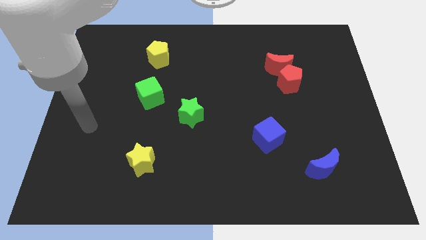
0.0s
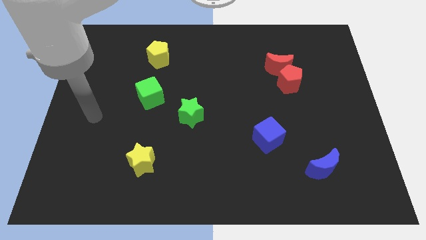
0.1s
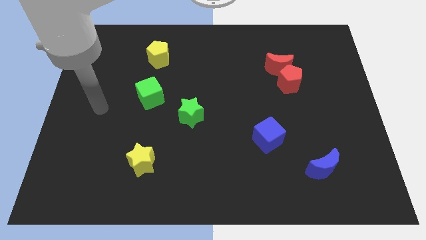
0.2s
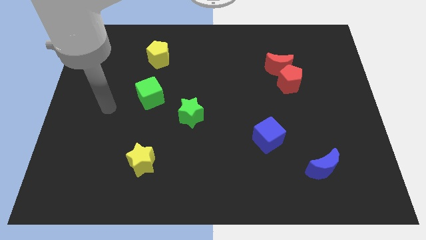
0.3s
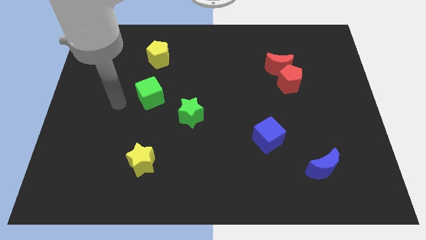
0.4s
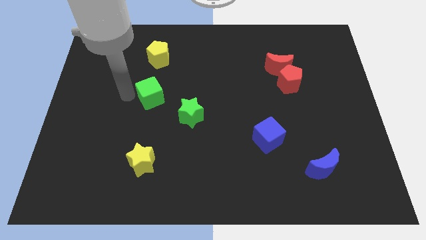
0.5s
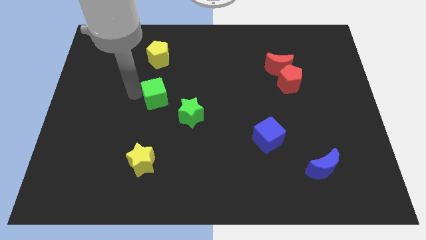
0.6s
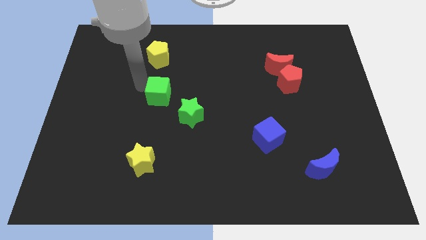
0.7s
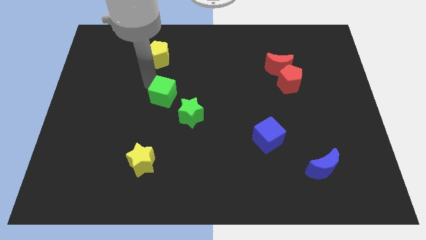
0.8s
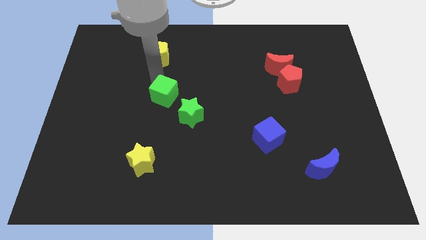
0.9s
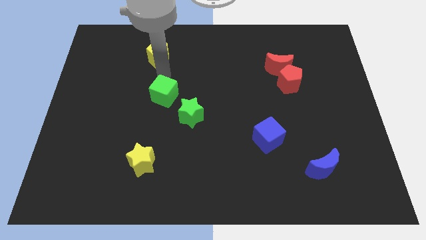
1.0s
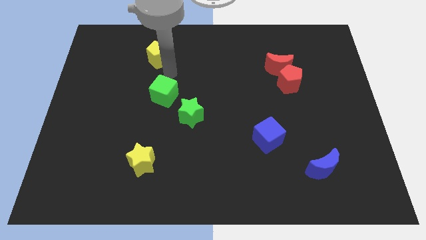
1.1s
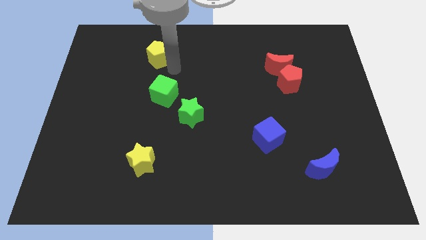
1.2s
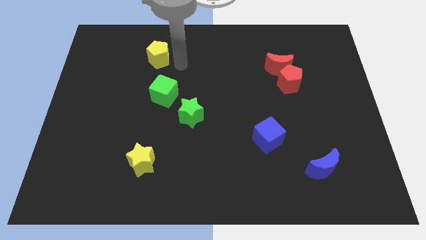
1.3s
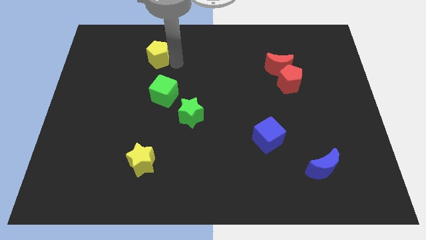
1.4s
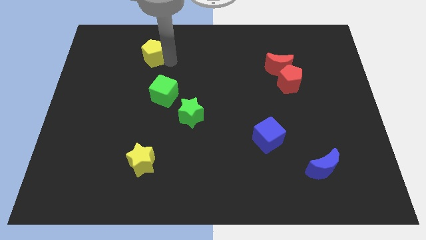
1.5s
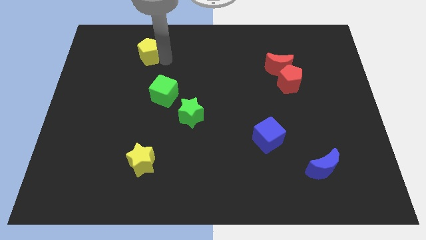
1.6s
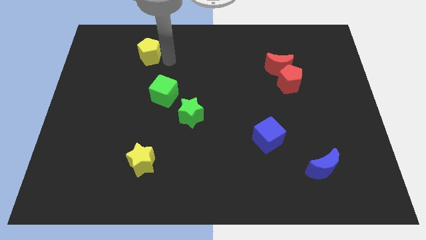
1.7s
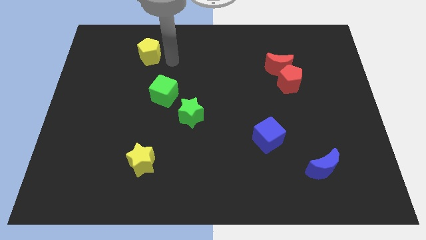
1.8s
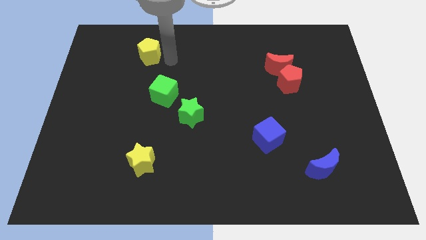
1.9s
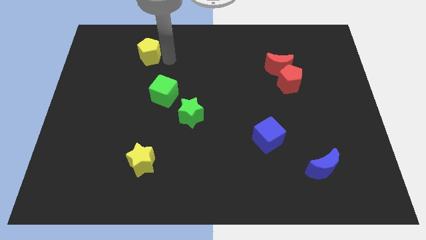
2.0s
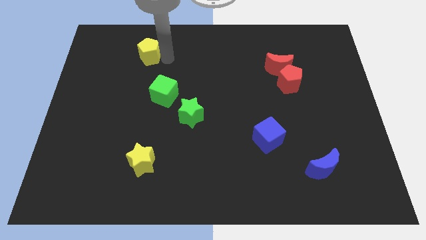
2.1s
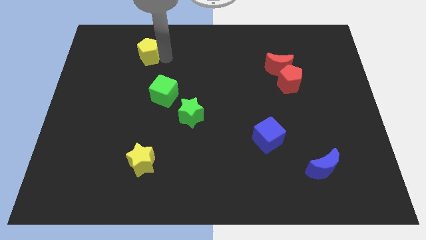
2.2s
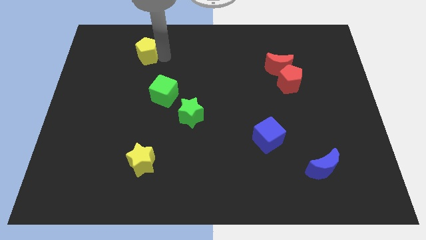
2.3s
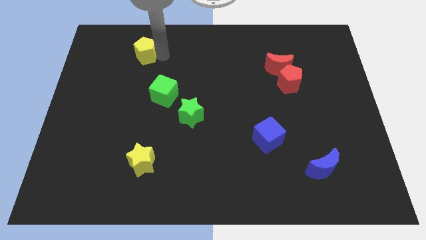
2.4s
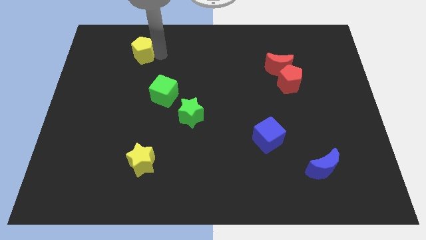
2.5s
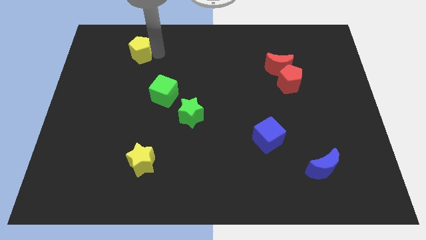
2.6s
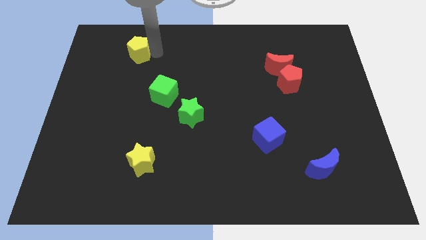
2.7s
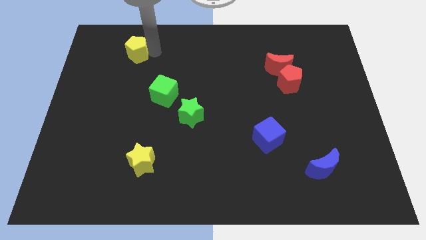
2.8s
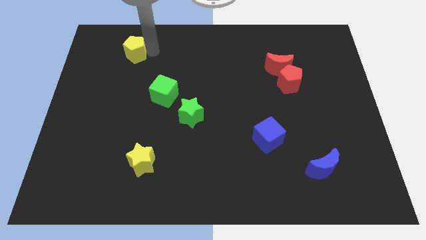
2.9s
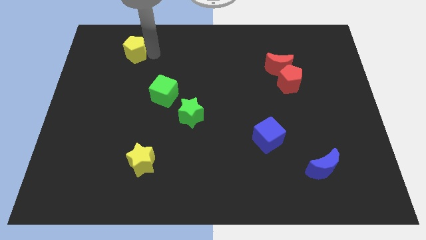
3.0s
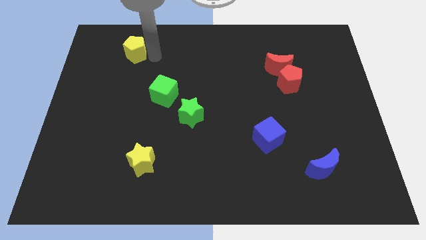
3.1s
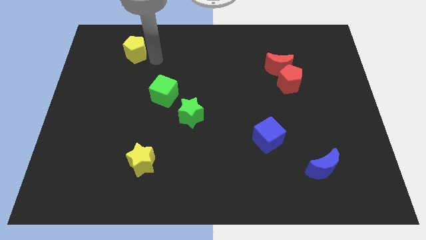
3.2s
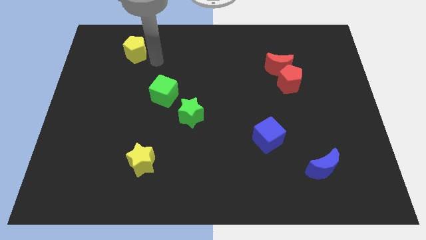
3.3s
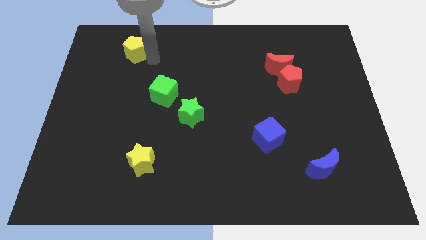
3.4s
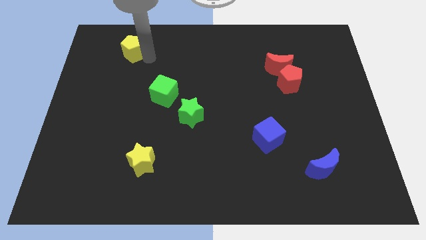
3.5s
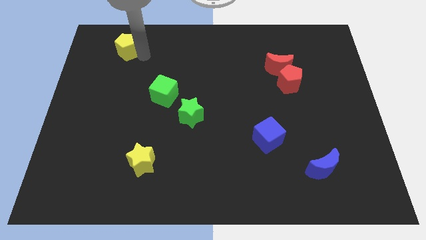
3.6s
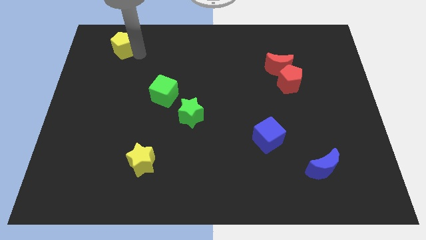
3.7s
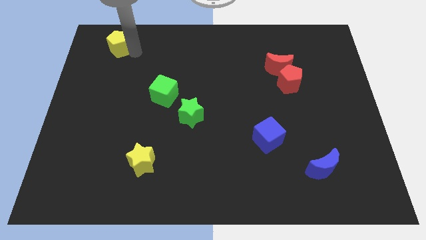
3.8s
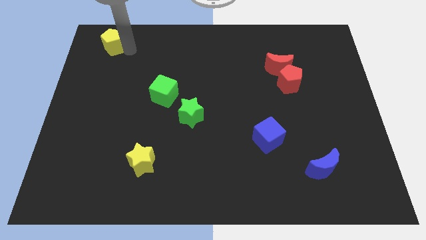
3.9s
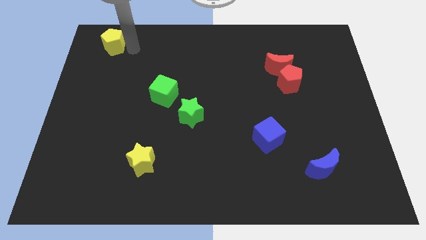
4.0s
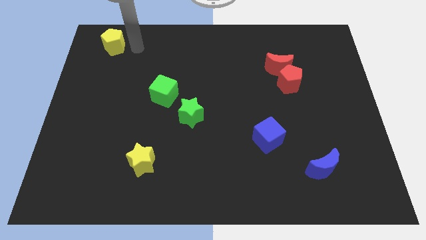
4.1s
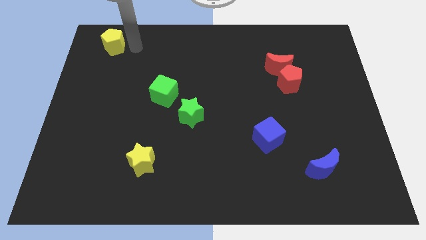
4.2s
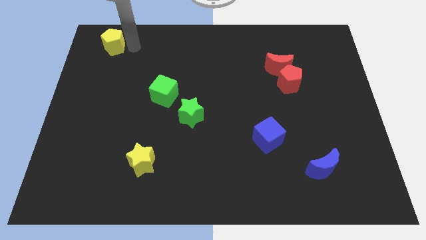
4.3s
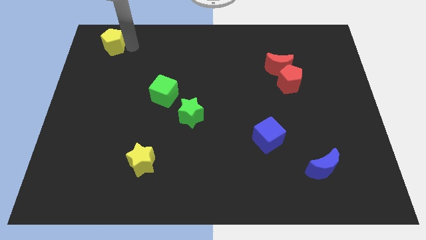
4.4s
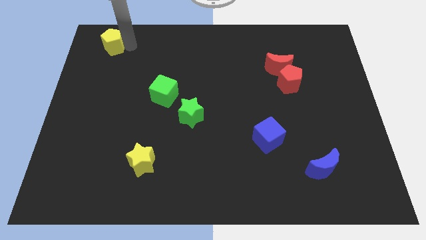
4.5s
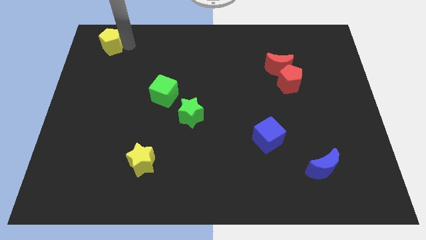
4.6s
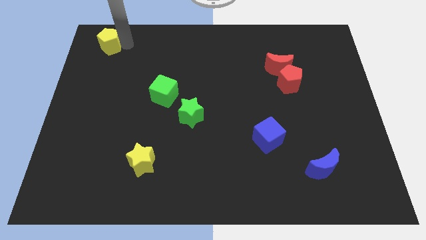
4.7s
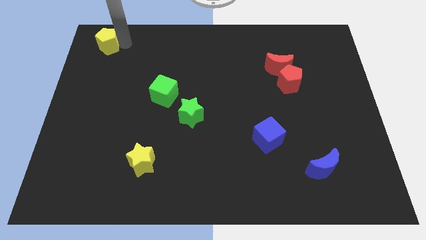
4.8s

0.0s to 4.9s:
push the yellow pentagon to the top left corner

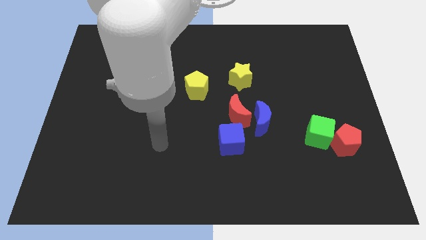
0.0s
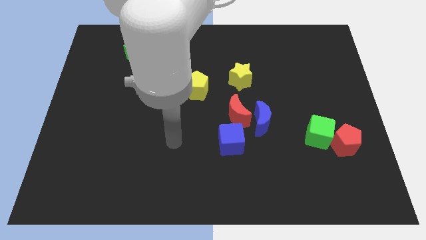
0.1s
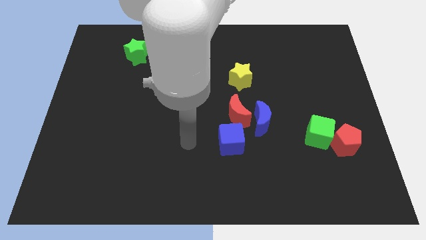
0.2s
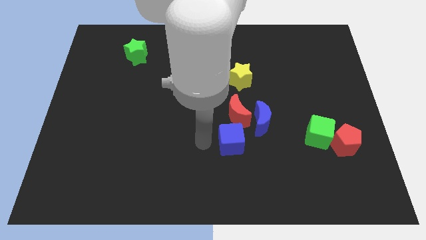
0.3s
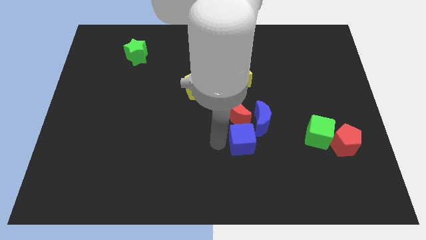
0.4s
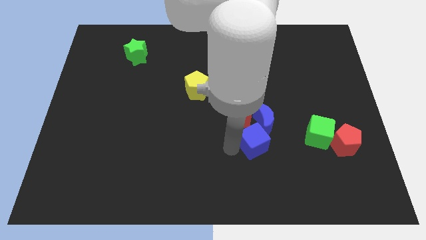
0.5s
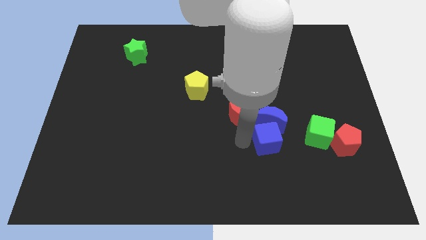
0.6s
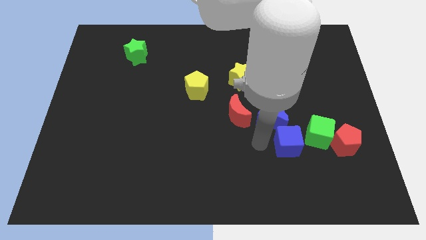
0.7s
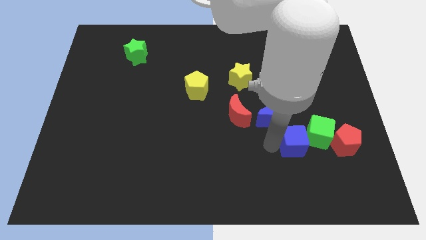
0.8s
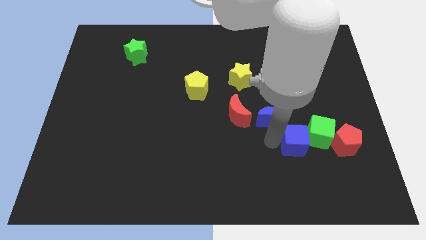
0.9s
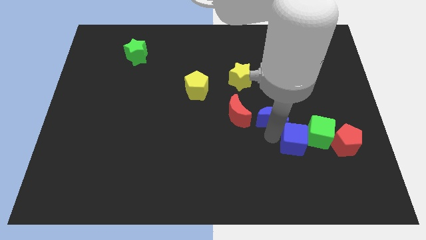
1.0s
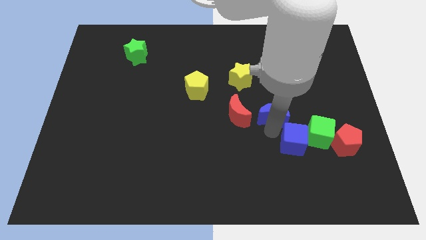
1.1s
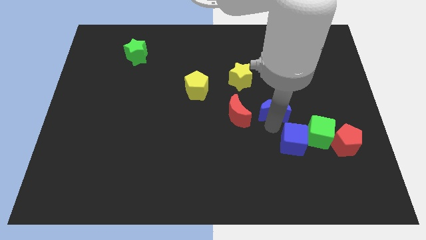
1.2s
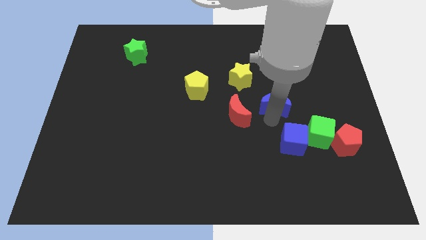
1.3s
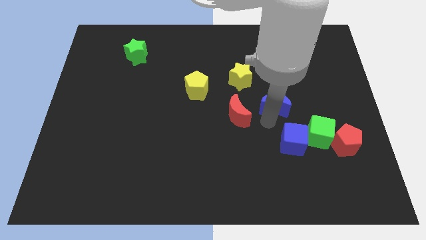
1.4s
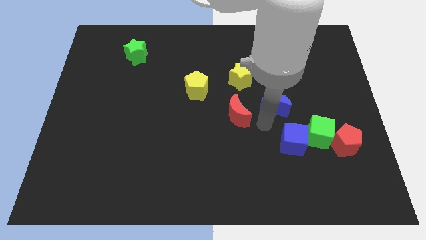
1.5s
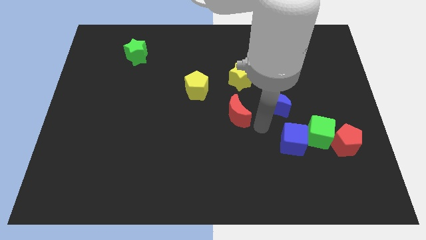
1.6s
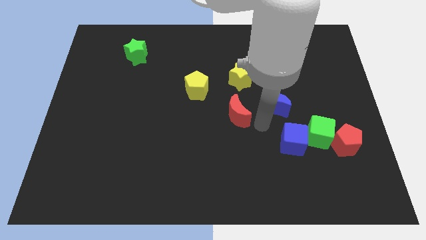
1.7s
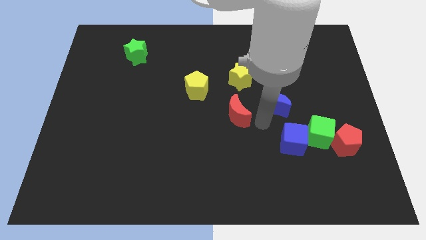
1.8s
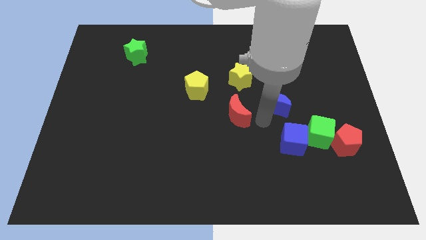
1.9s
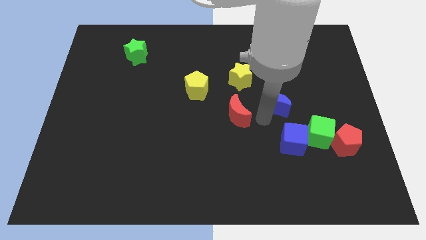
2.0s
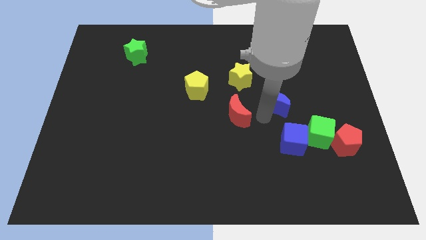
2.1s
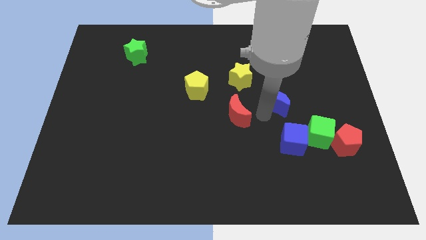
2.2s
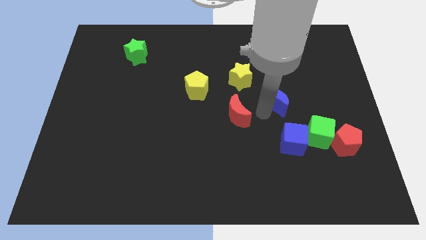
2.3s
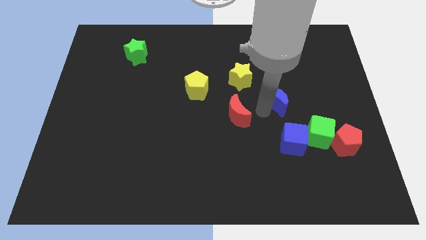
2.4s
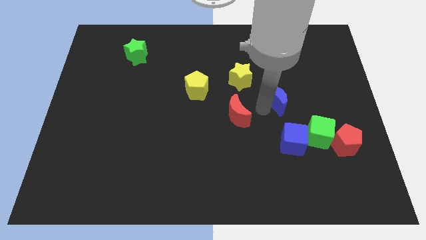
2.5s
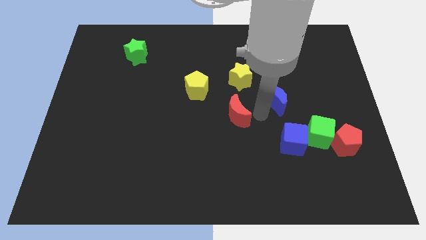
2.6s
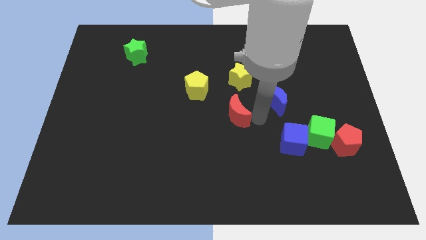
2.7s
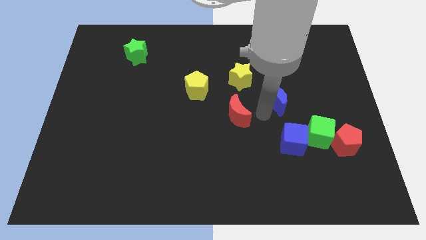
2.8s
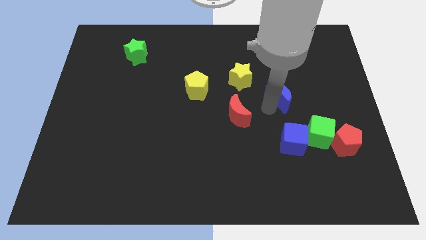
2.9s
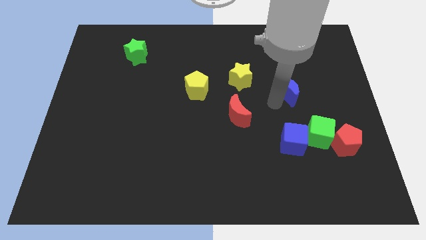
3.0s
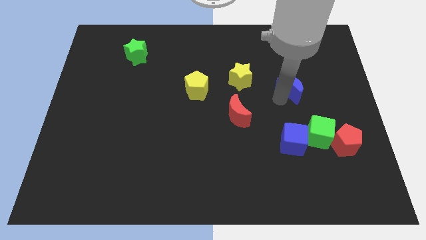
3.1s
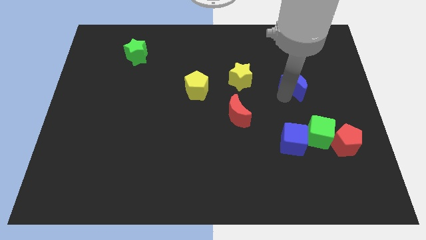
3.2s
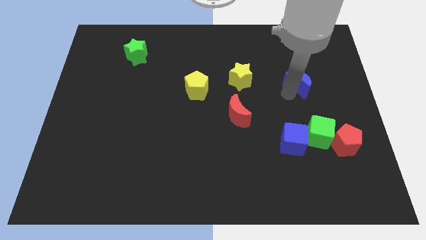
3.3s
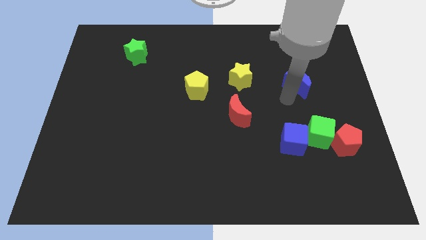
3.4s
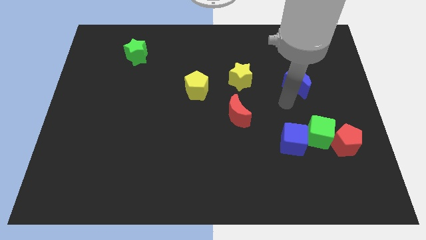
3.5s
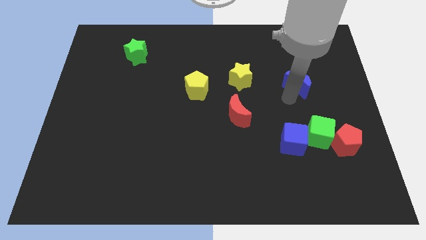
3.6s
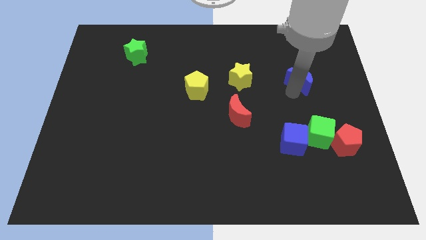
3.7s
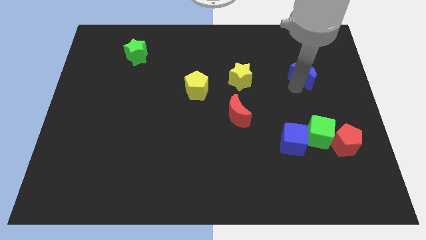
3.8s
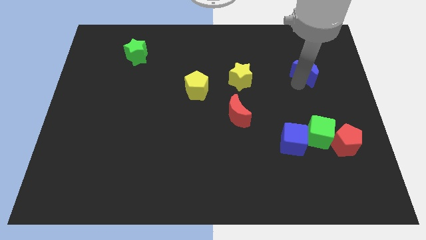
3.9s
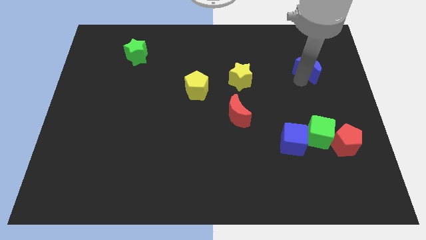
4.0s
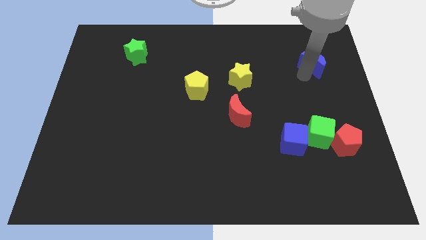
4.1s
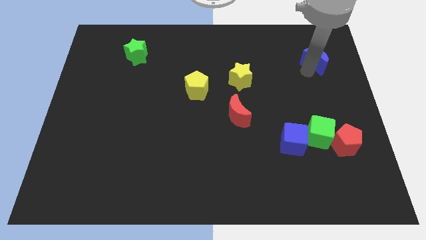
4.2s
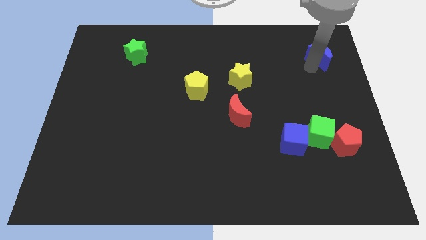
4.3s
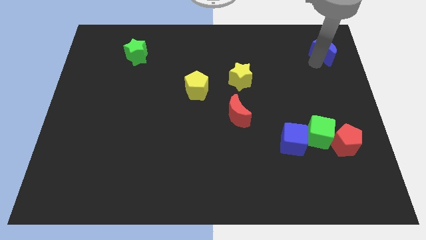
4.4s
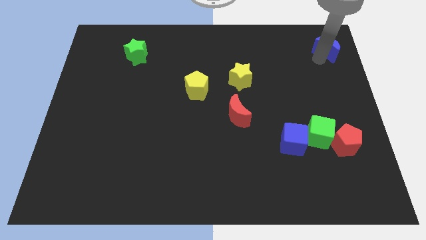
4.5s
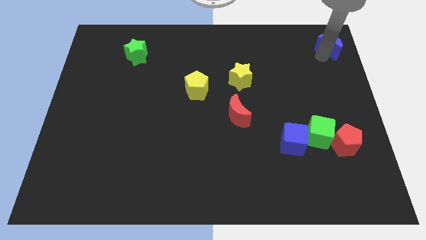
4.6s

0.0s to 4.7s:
slide the blue moon to the top right
